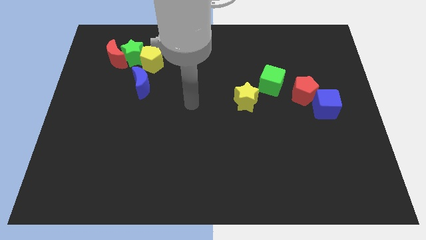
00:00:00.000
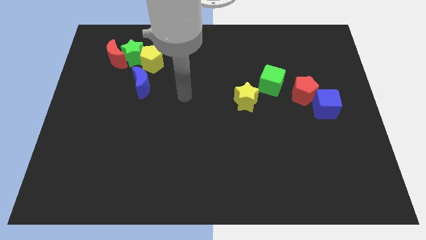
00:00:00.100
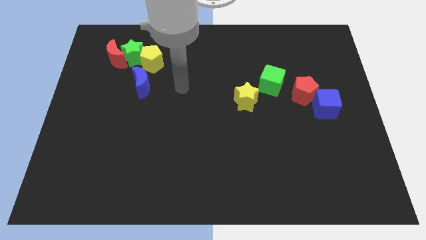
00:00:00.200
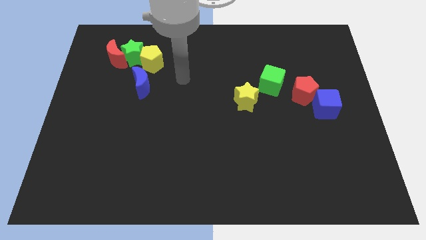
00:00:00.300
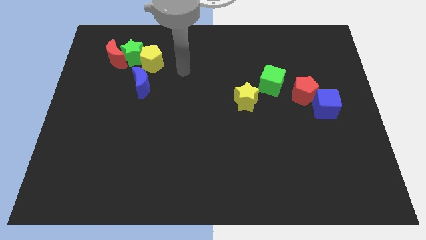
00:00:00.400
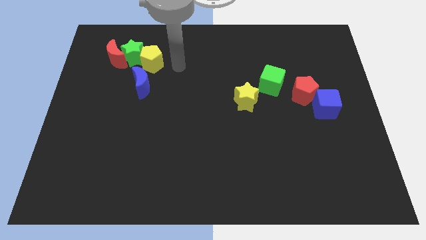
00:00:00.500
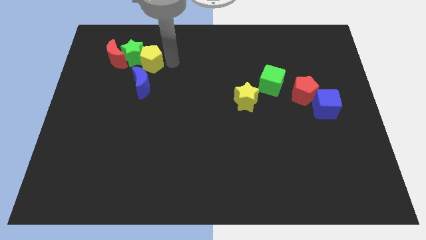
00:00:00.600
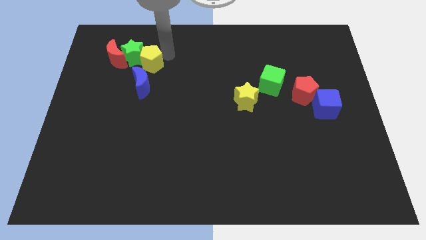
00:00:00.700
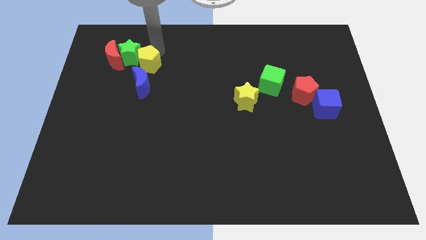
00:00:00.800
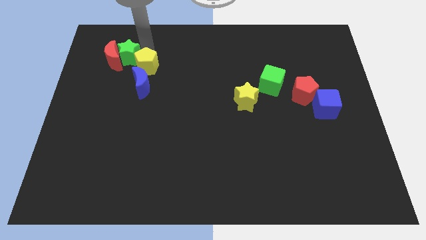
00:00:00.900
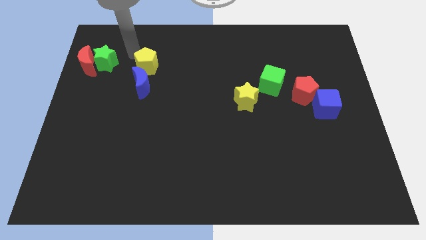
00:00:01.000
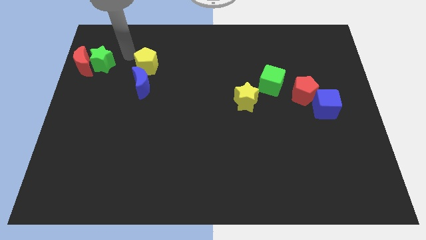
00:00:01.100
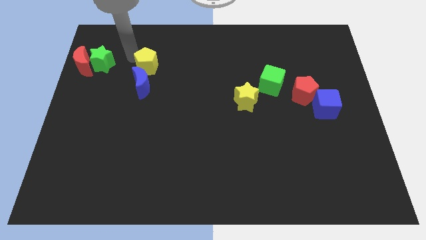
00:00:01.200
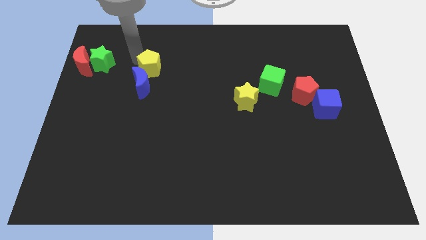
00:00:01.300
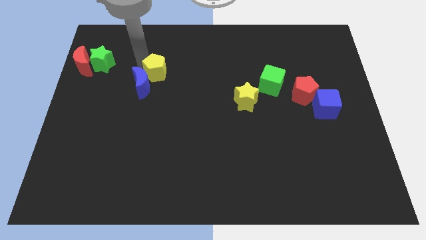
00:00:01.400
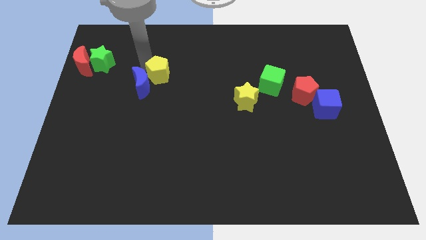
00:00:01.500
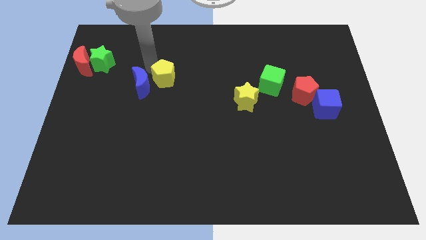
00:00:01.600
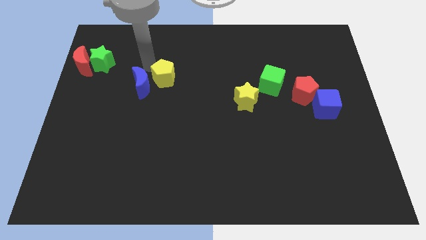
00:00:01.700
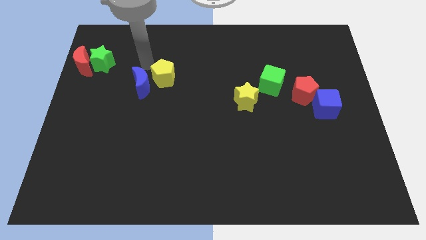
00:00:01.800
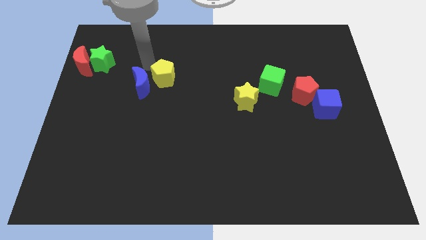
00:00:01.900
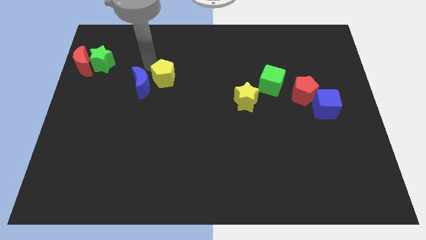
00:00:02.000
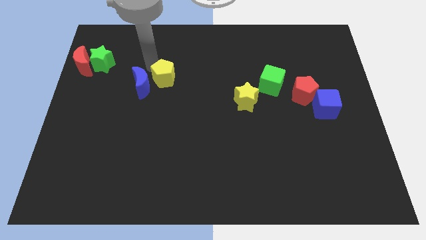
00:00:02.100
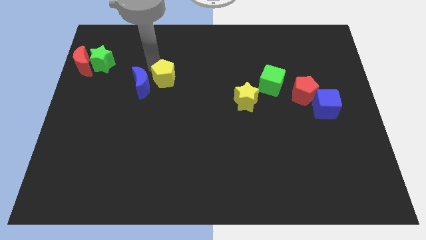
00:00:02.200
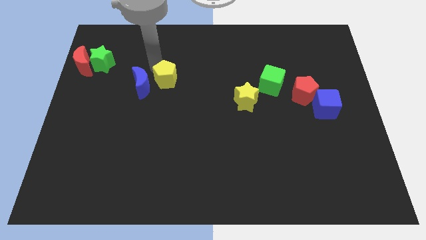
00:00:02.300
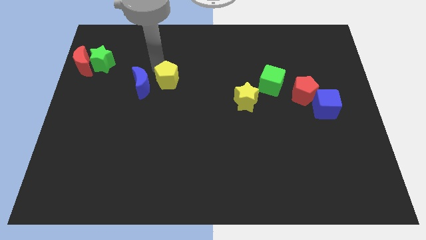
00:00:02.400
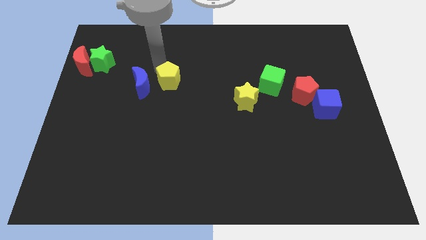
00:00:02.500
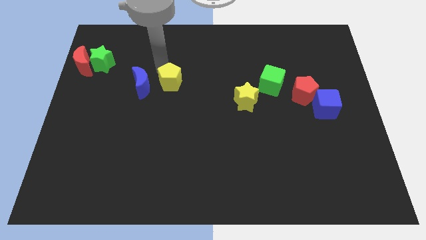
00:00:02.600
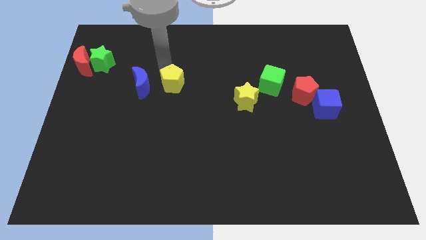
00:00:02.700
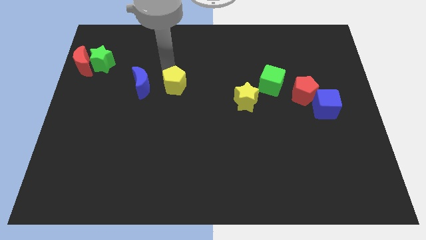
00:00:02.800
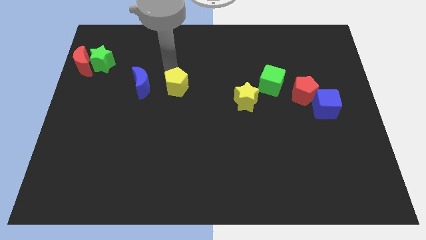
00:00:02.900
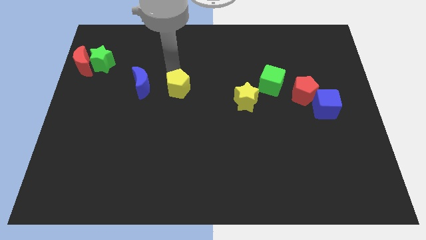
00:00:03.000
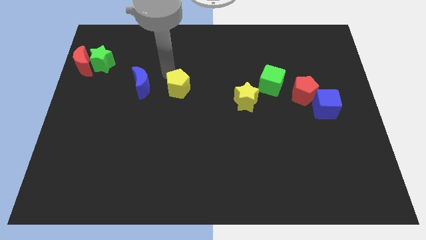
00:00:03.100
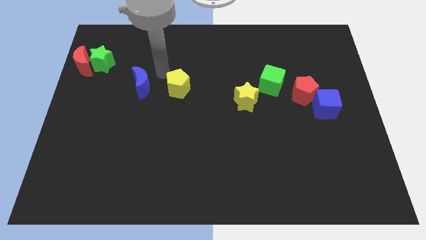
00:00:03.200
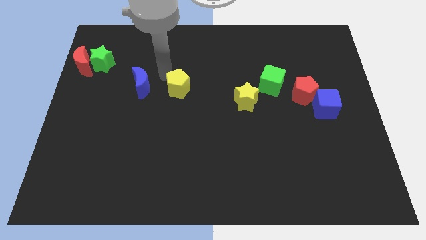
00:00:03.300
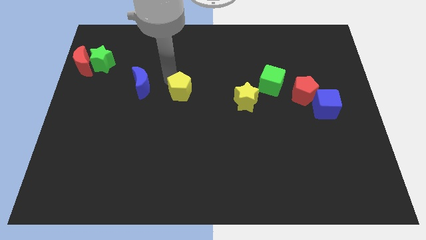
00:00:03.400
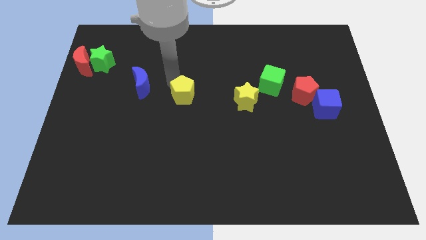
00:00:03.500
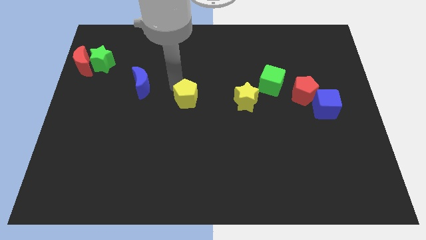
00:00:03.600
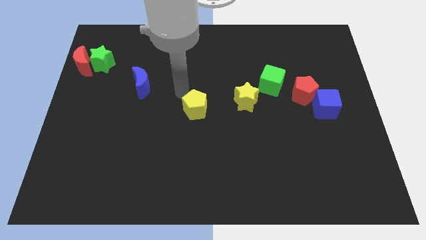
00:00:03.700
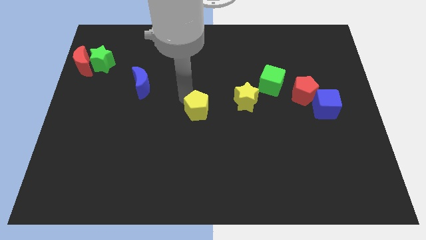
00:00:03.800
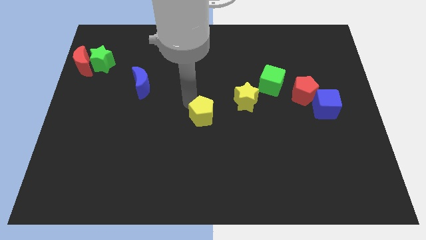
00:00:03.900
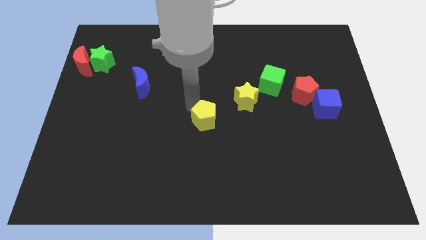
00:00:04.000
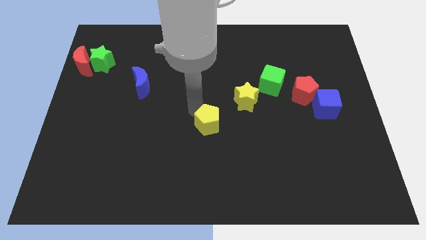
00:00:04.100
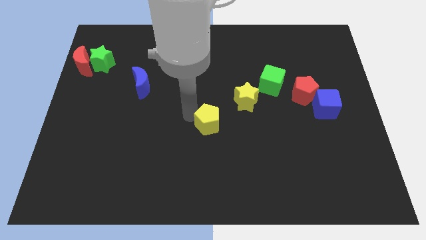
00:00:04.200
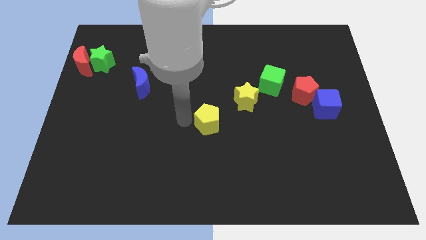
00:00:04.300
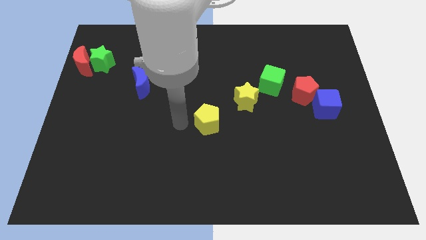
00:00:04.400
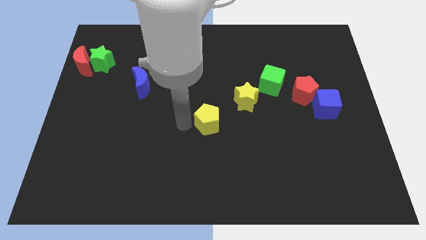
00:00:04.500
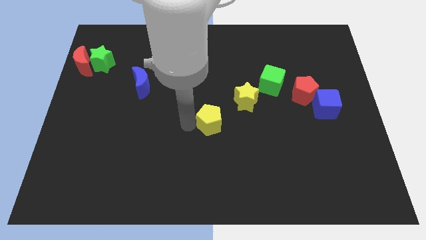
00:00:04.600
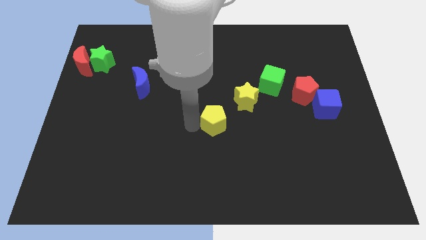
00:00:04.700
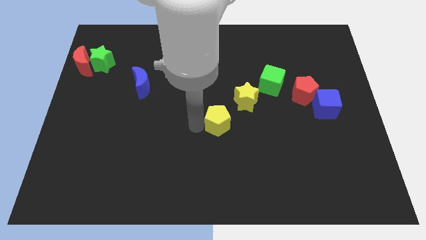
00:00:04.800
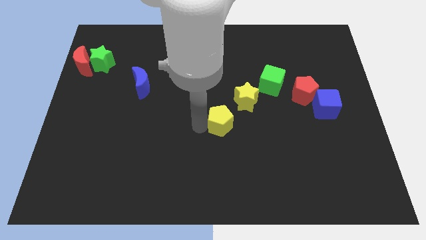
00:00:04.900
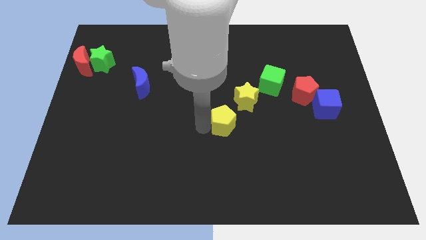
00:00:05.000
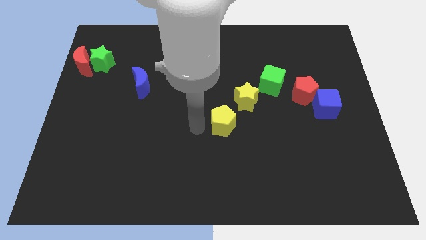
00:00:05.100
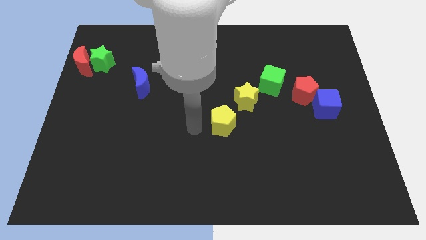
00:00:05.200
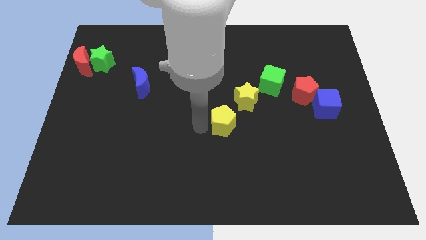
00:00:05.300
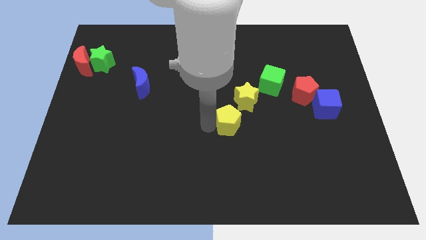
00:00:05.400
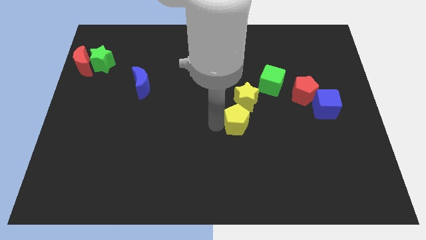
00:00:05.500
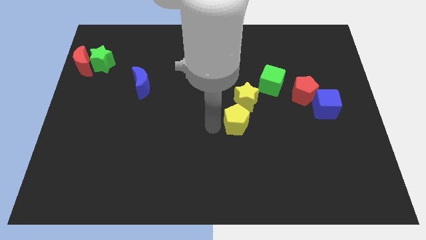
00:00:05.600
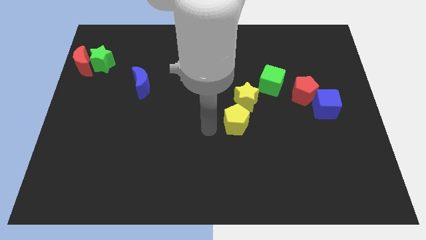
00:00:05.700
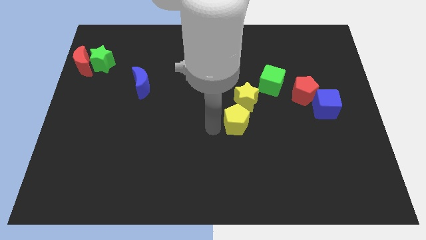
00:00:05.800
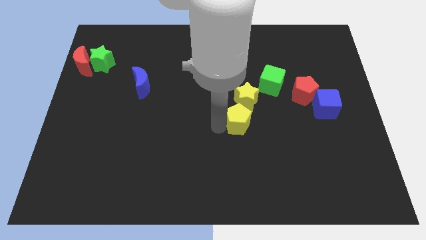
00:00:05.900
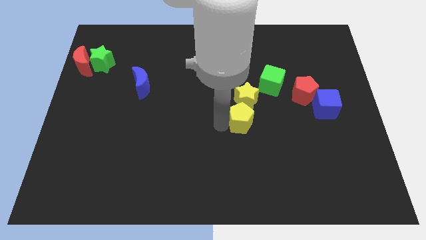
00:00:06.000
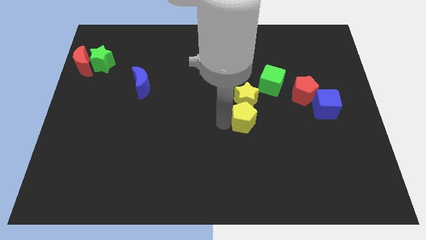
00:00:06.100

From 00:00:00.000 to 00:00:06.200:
push the yellow pentagon to the bottom right of the yellow star

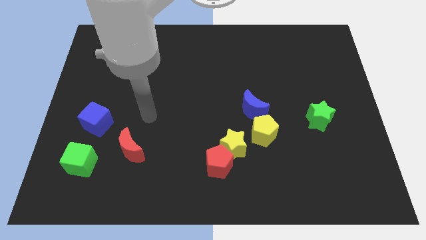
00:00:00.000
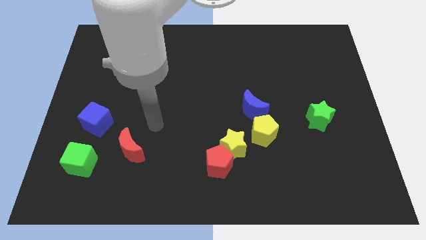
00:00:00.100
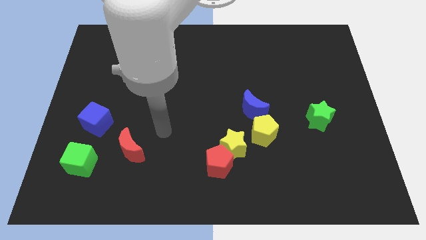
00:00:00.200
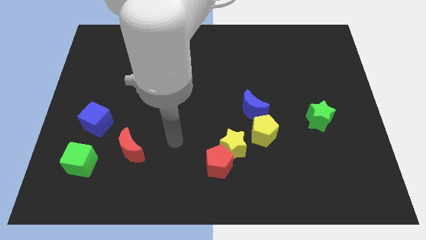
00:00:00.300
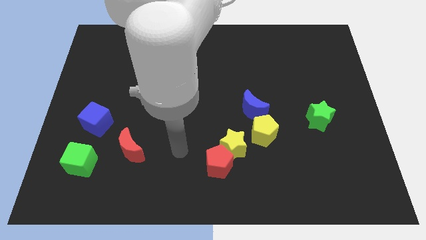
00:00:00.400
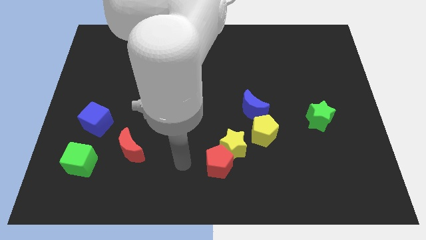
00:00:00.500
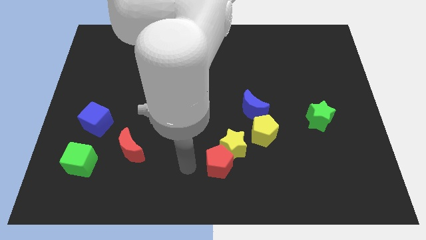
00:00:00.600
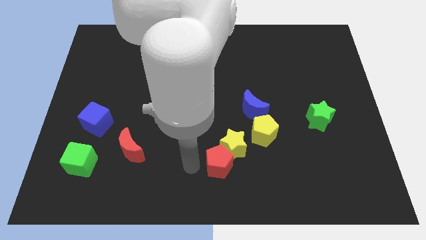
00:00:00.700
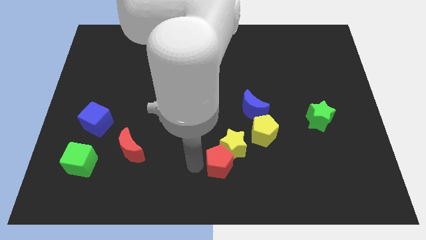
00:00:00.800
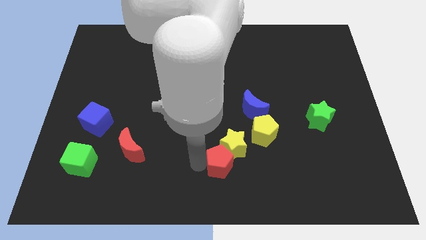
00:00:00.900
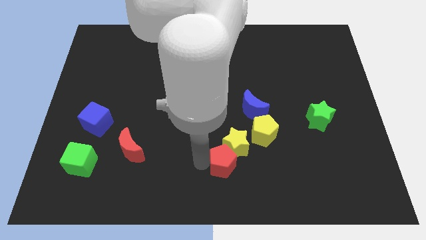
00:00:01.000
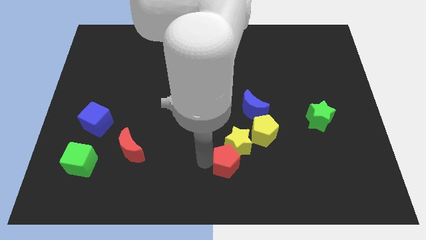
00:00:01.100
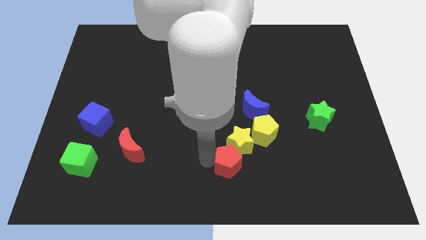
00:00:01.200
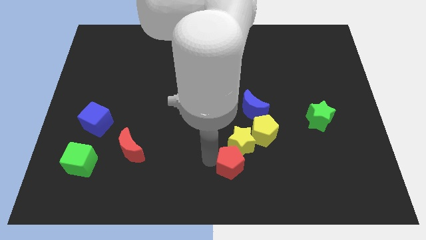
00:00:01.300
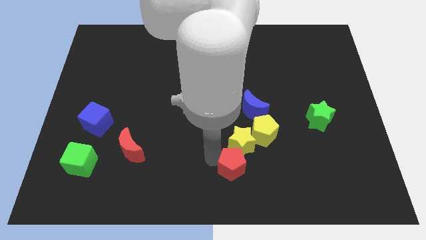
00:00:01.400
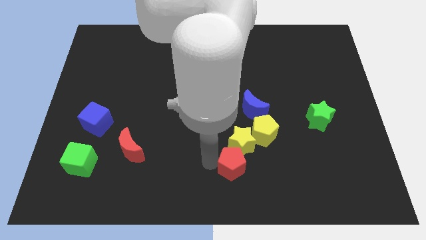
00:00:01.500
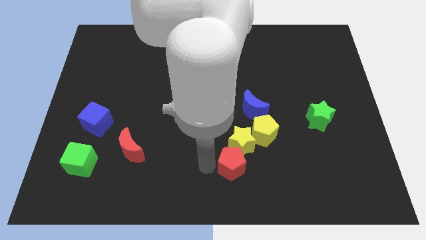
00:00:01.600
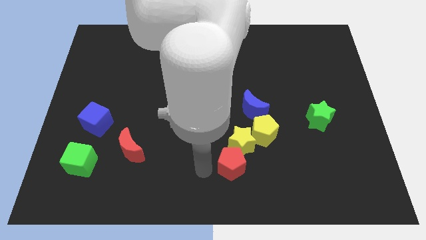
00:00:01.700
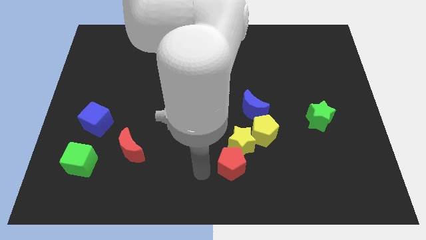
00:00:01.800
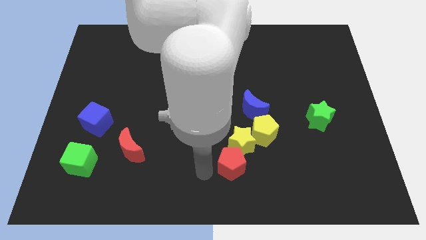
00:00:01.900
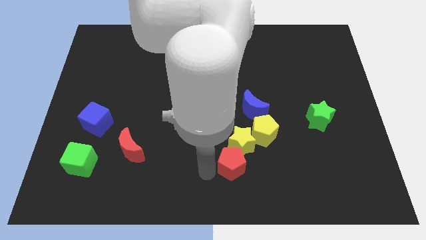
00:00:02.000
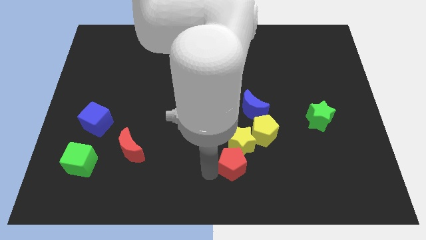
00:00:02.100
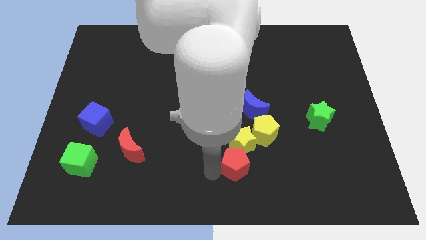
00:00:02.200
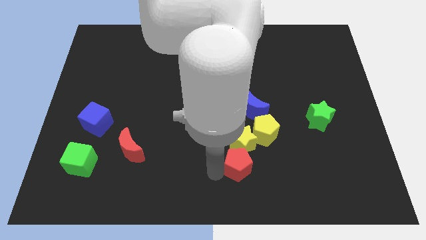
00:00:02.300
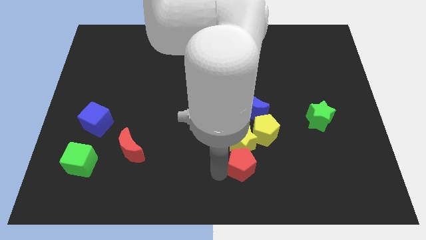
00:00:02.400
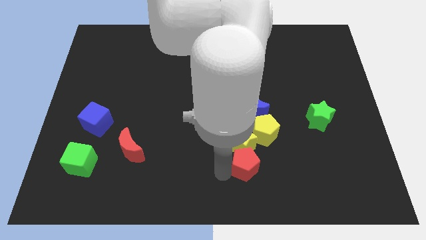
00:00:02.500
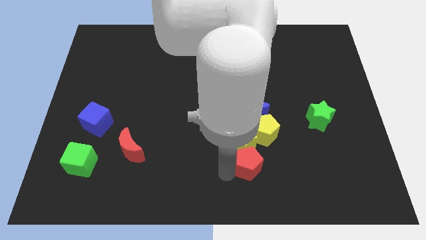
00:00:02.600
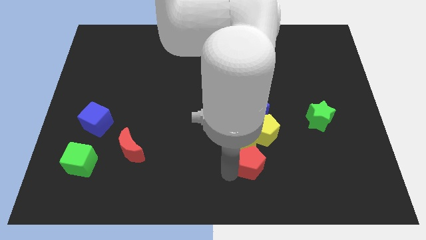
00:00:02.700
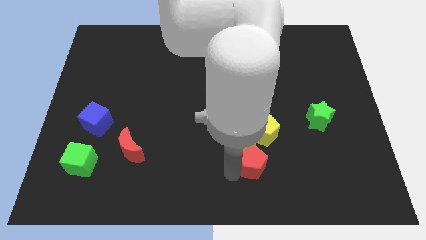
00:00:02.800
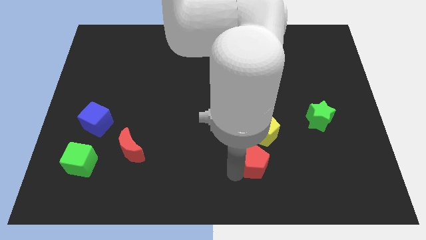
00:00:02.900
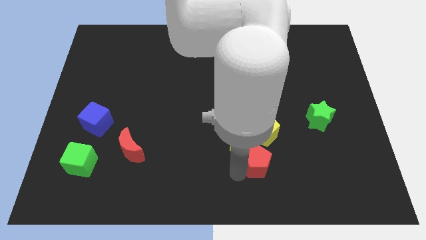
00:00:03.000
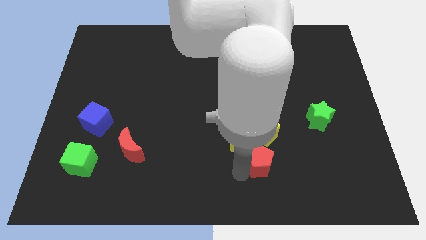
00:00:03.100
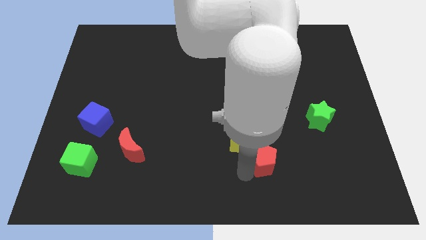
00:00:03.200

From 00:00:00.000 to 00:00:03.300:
put the red pentagon just right of the yellow star
